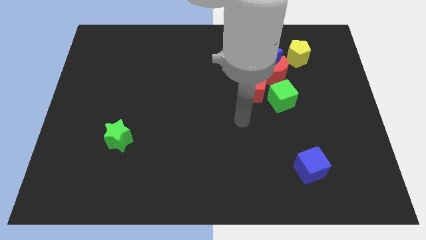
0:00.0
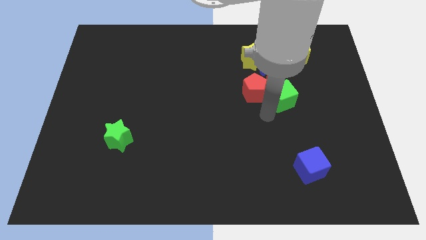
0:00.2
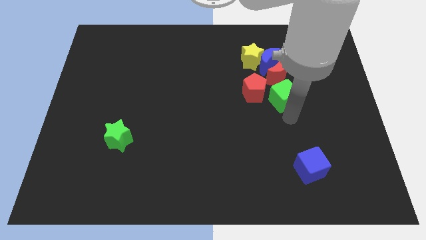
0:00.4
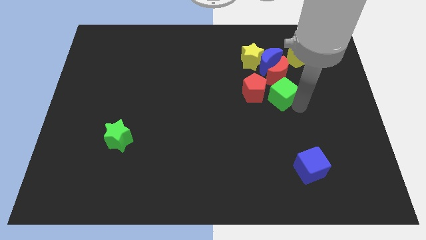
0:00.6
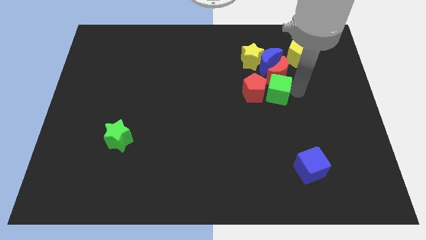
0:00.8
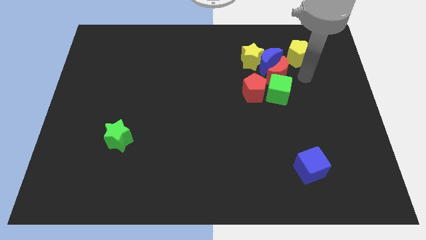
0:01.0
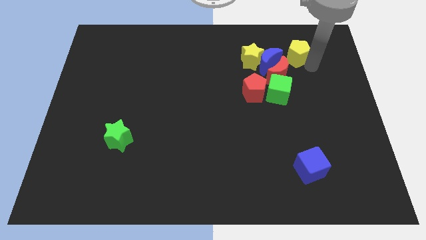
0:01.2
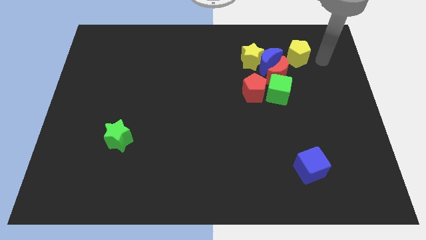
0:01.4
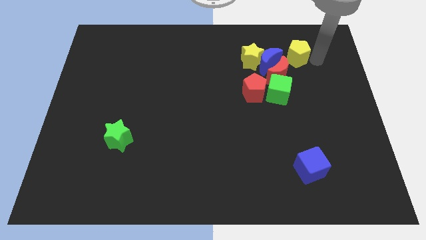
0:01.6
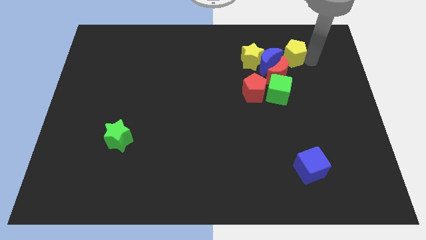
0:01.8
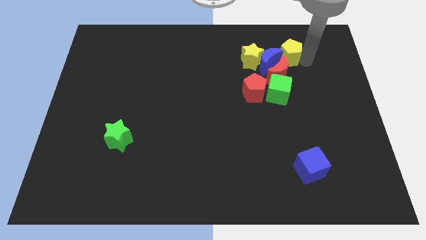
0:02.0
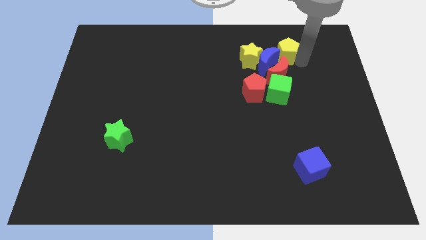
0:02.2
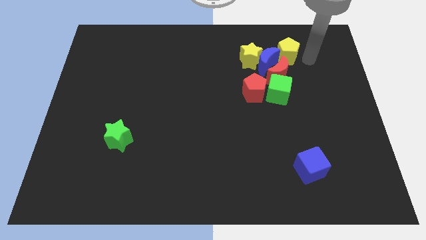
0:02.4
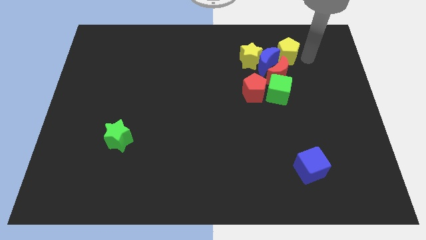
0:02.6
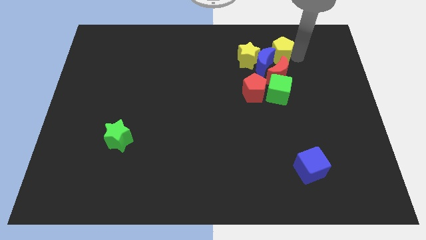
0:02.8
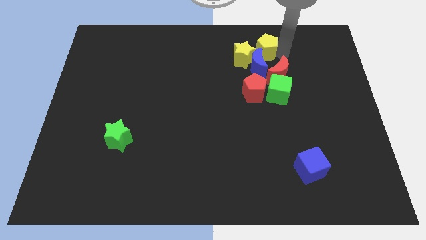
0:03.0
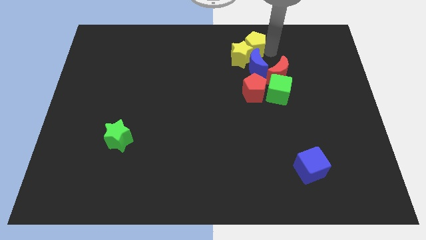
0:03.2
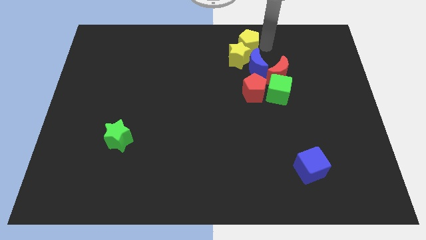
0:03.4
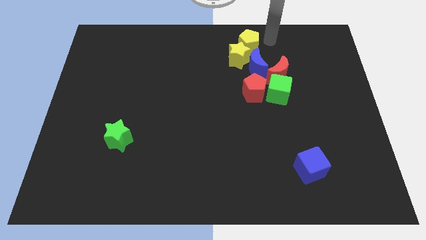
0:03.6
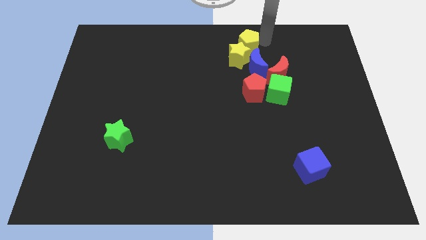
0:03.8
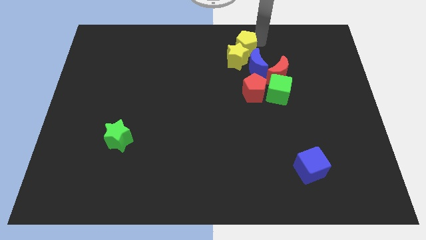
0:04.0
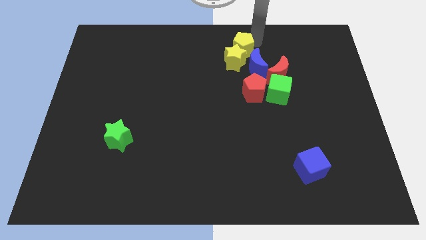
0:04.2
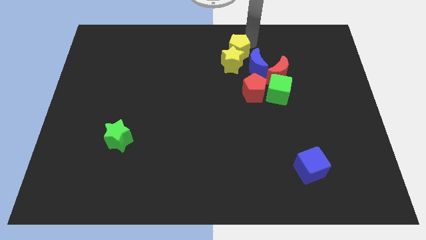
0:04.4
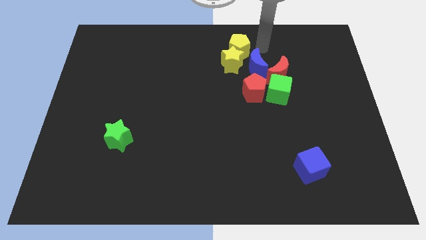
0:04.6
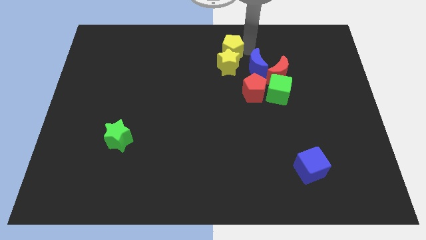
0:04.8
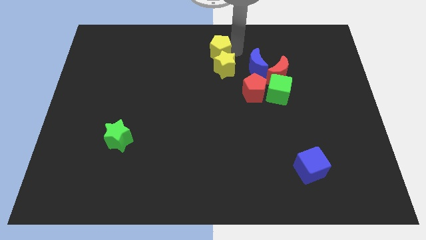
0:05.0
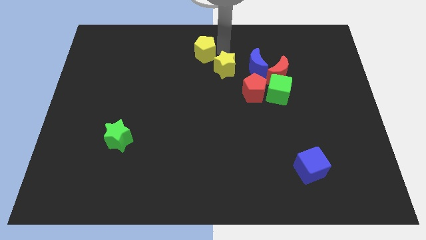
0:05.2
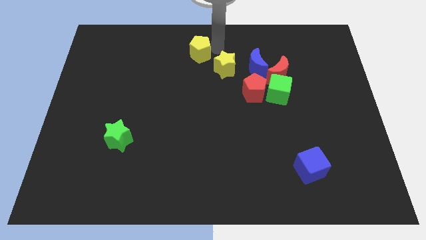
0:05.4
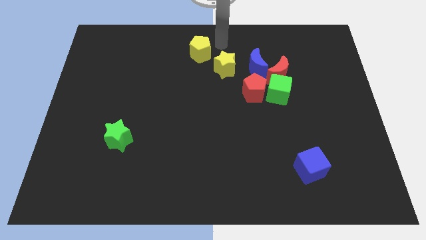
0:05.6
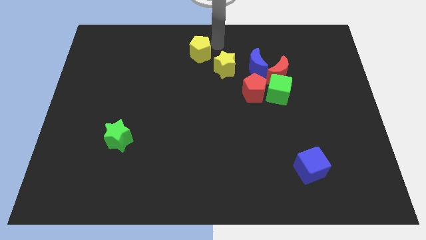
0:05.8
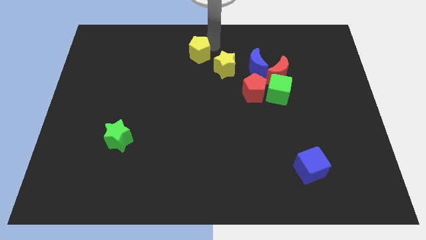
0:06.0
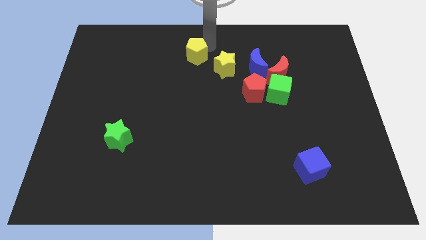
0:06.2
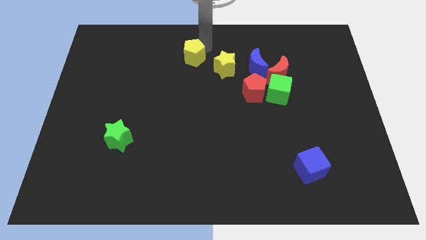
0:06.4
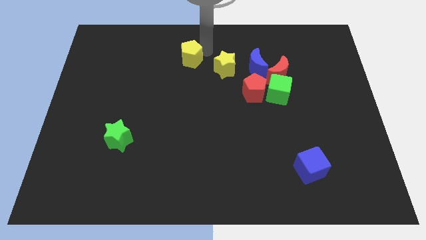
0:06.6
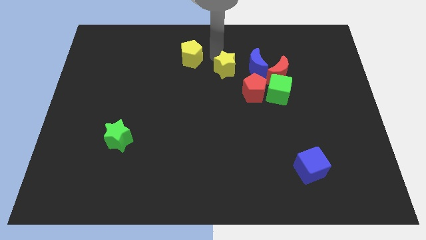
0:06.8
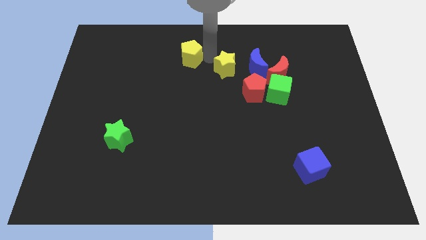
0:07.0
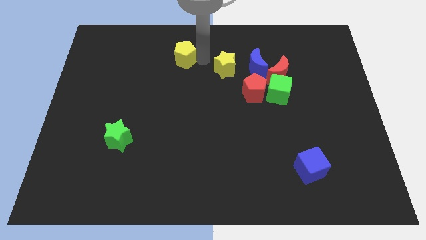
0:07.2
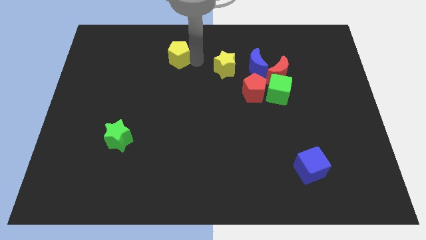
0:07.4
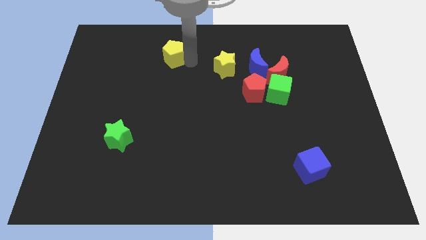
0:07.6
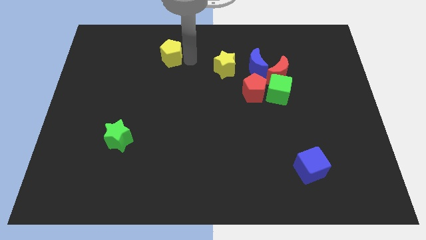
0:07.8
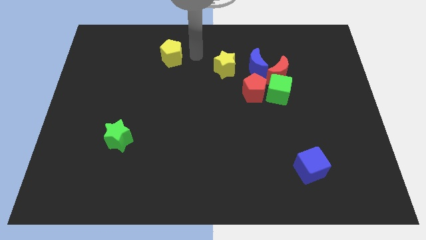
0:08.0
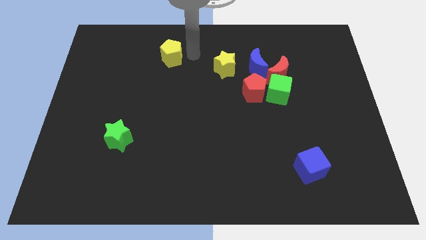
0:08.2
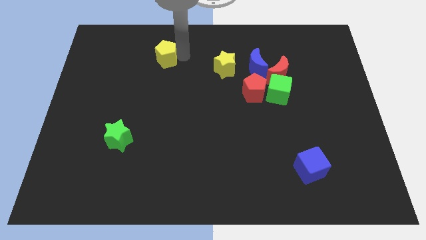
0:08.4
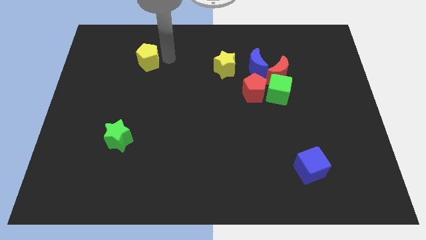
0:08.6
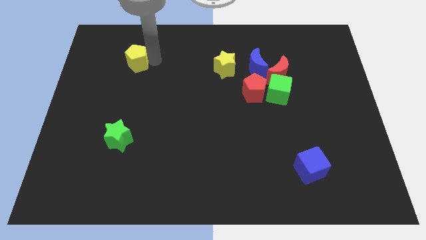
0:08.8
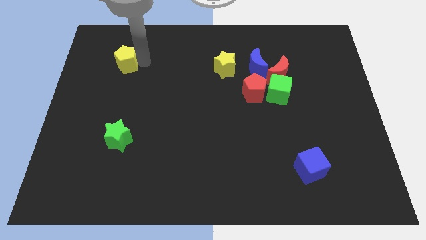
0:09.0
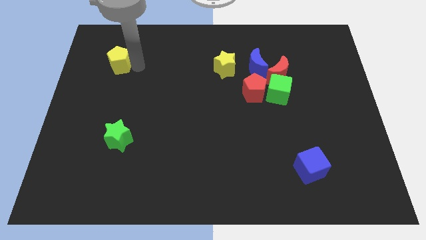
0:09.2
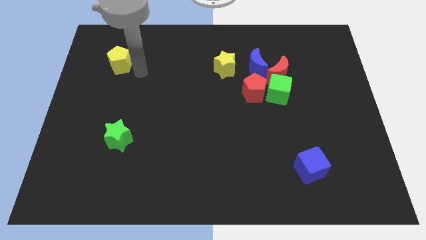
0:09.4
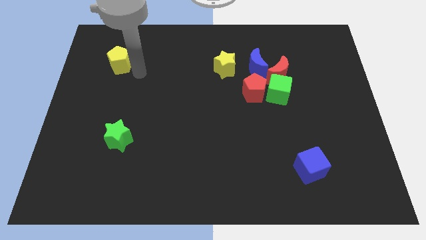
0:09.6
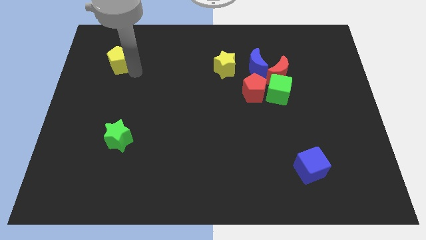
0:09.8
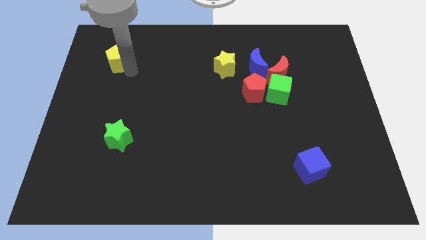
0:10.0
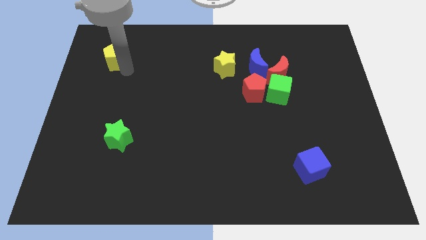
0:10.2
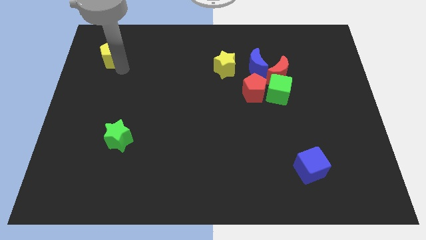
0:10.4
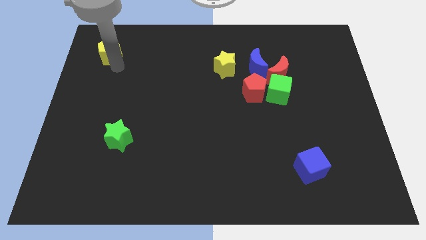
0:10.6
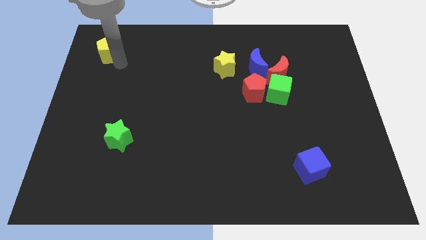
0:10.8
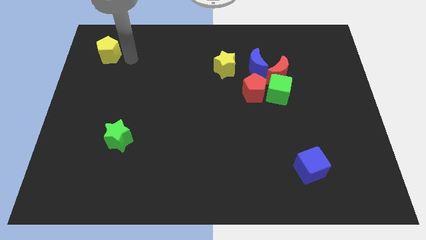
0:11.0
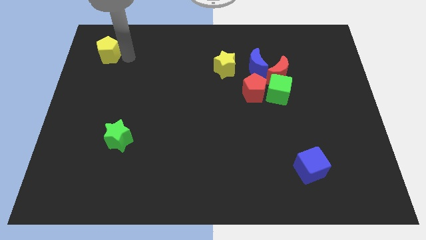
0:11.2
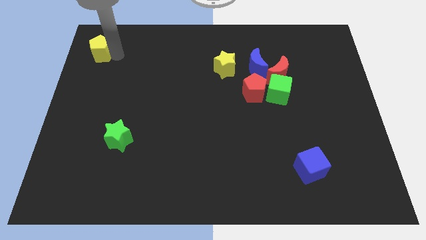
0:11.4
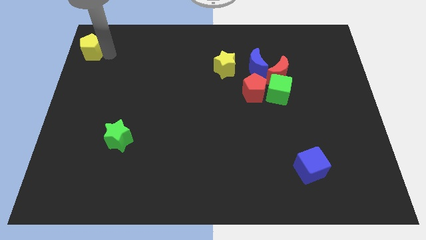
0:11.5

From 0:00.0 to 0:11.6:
push the yellow pentagon to the upper left corner
